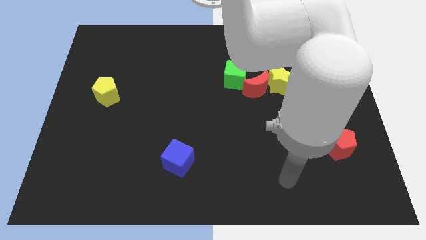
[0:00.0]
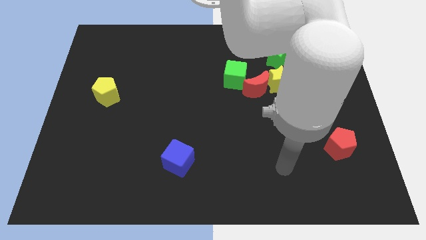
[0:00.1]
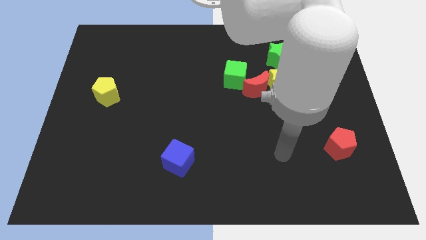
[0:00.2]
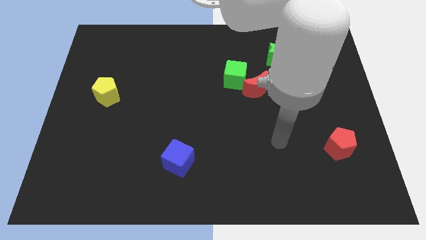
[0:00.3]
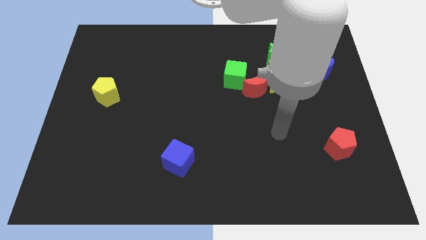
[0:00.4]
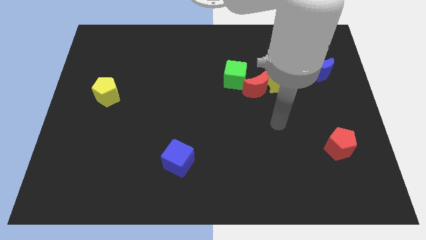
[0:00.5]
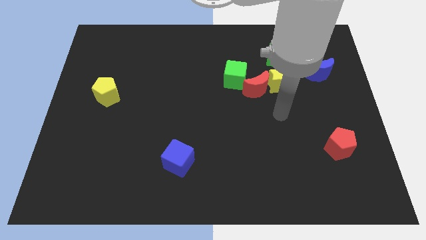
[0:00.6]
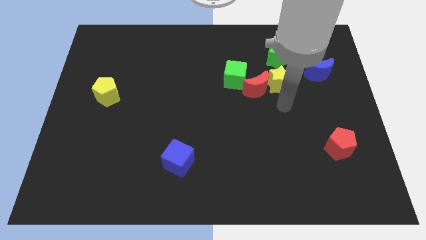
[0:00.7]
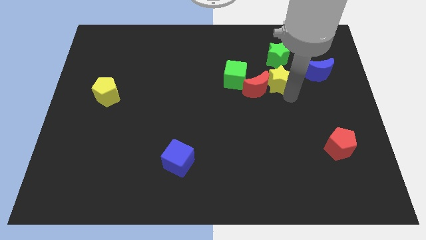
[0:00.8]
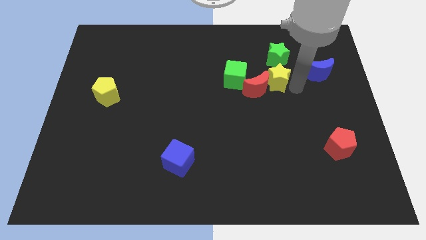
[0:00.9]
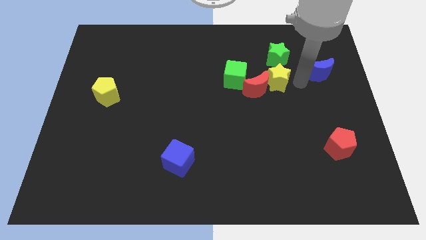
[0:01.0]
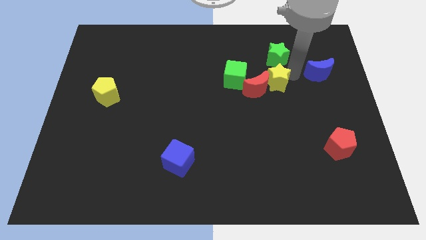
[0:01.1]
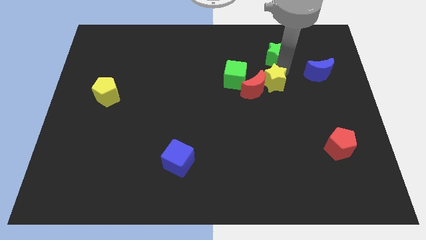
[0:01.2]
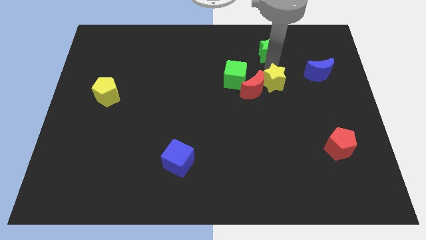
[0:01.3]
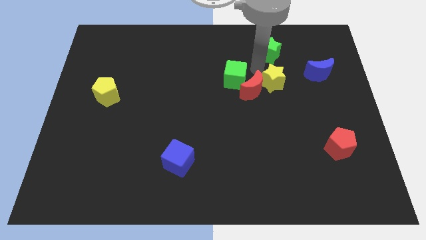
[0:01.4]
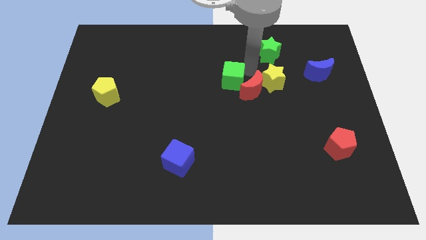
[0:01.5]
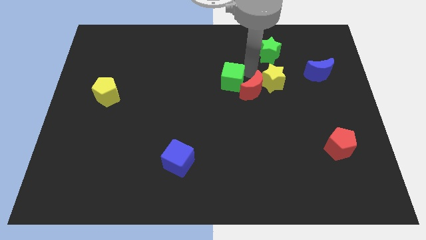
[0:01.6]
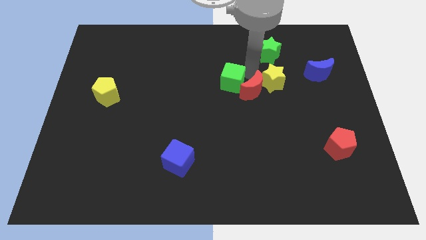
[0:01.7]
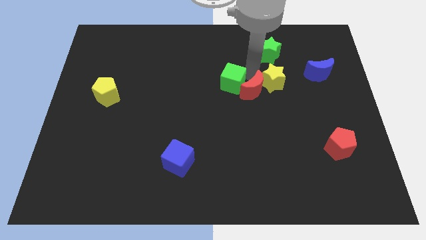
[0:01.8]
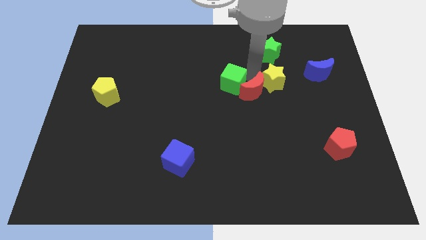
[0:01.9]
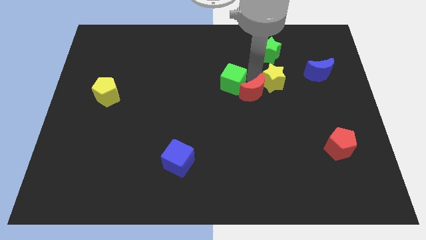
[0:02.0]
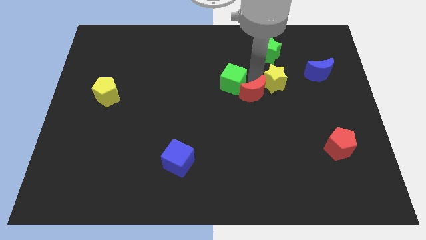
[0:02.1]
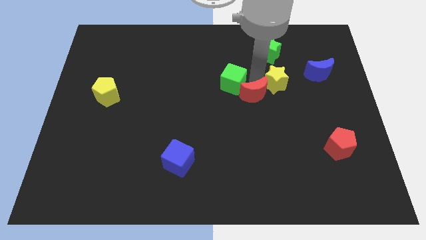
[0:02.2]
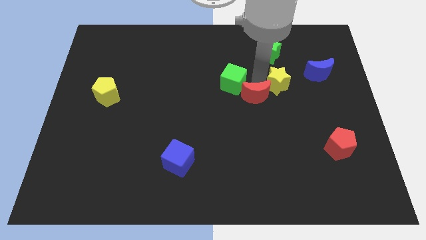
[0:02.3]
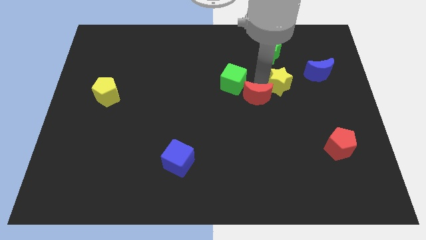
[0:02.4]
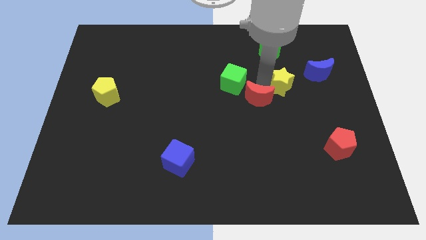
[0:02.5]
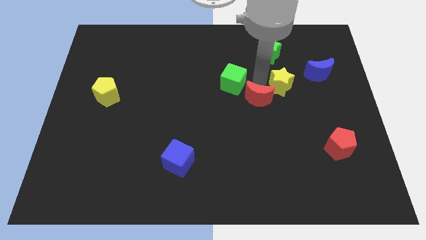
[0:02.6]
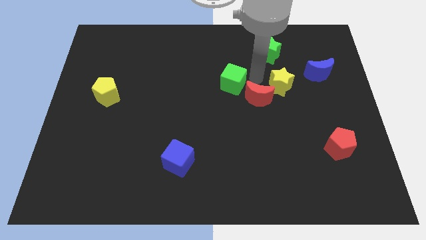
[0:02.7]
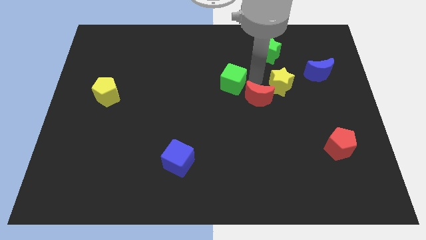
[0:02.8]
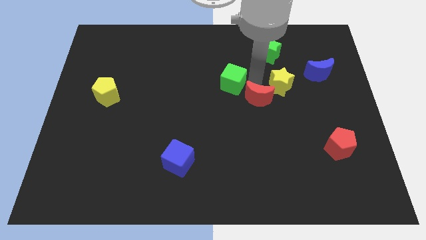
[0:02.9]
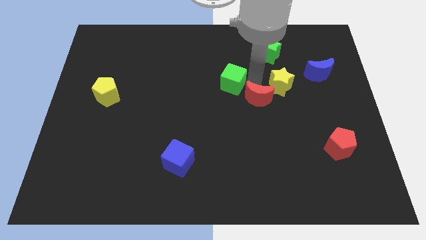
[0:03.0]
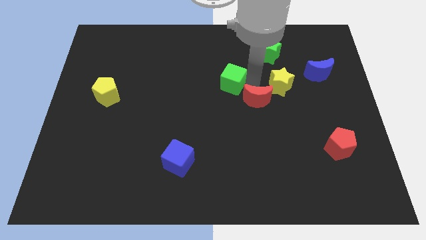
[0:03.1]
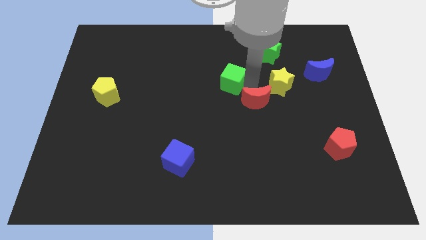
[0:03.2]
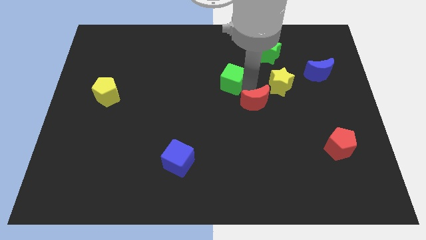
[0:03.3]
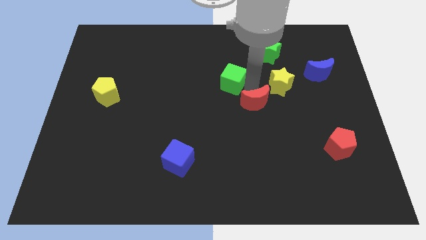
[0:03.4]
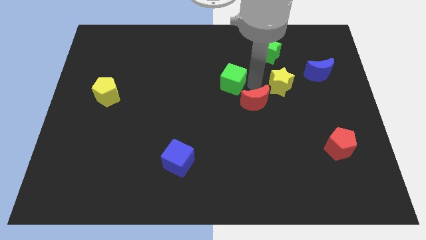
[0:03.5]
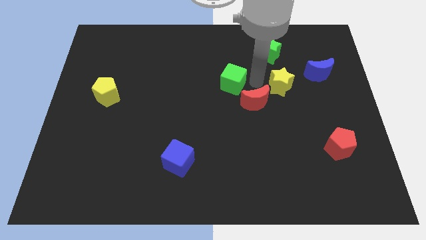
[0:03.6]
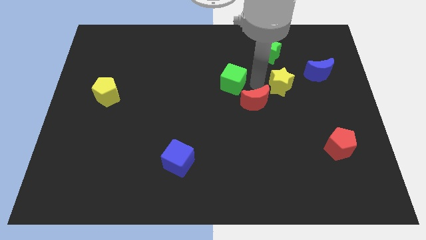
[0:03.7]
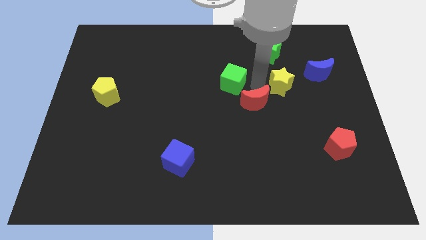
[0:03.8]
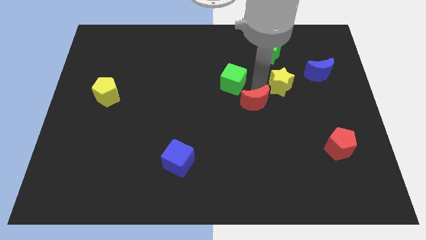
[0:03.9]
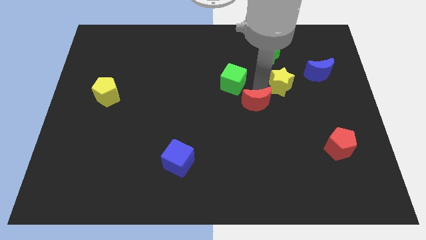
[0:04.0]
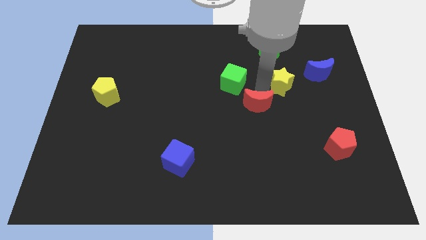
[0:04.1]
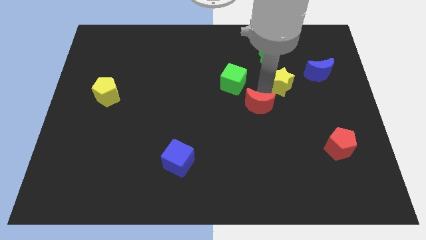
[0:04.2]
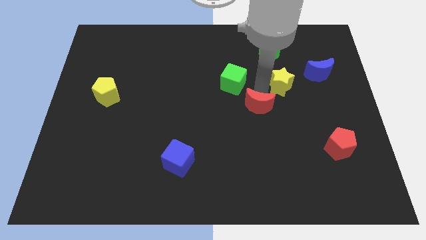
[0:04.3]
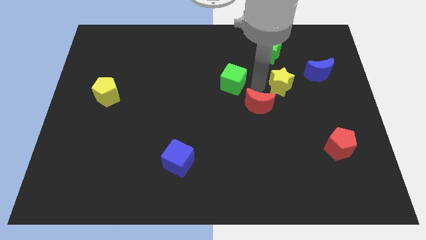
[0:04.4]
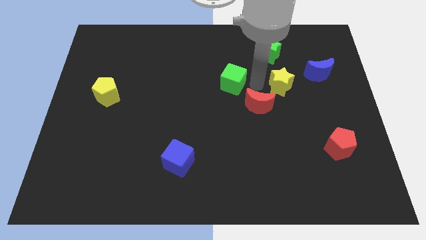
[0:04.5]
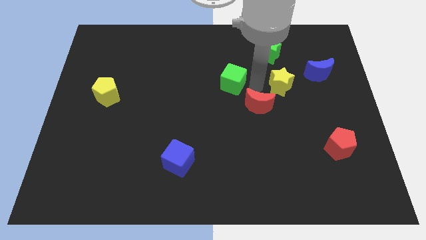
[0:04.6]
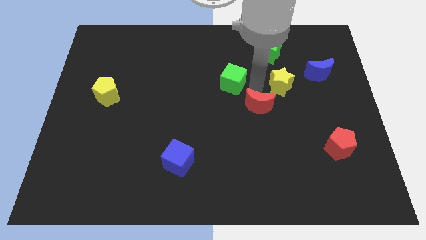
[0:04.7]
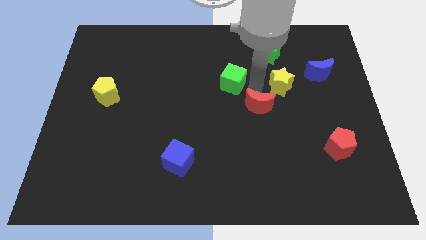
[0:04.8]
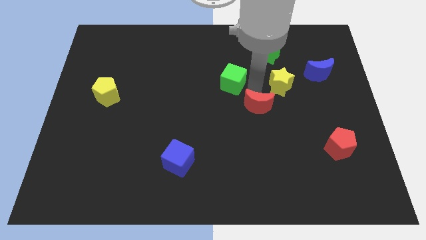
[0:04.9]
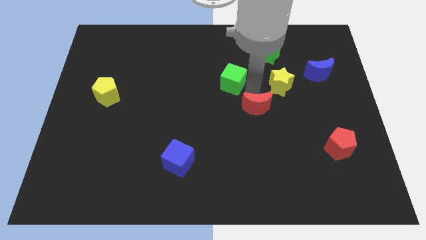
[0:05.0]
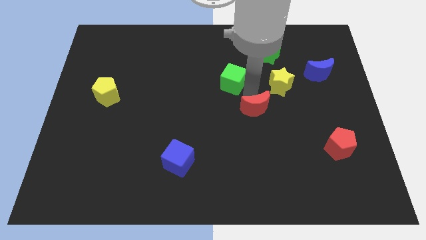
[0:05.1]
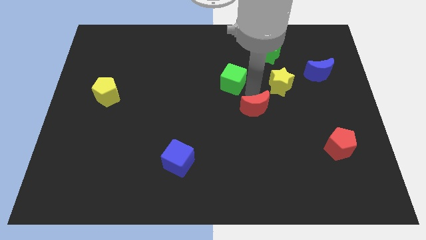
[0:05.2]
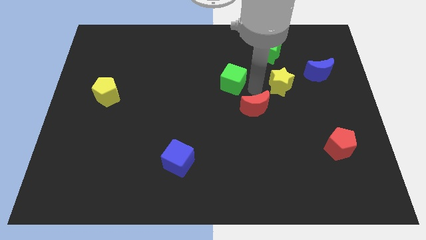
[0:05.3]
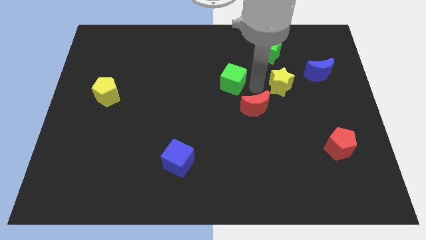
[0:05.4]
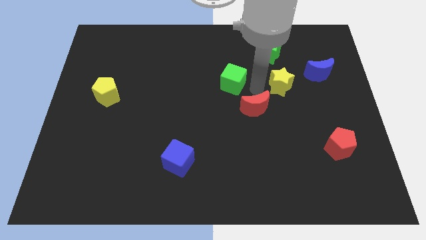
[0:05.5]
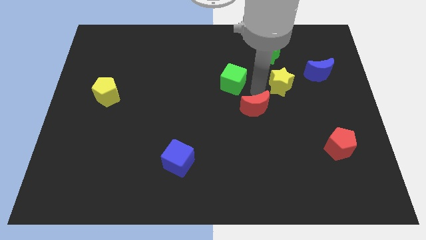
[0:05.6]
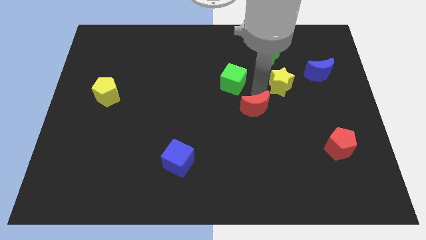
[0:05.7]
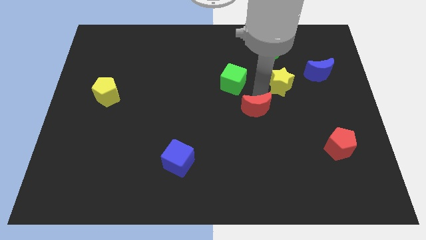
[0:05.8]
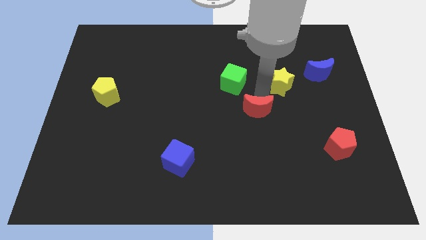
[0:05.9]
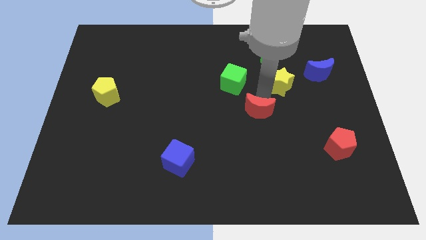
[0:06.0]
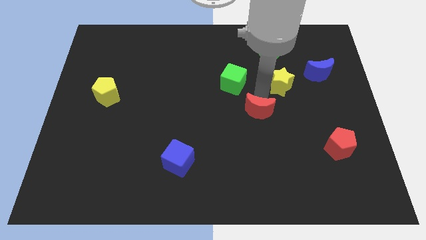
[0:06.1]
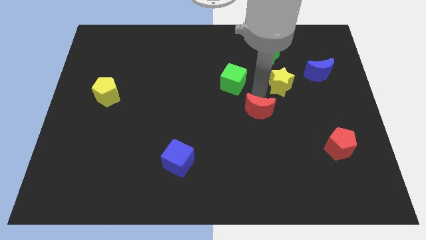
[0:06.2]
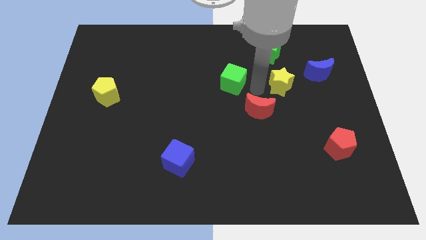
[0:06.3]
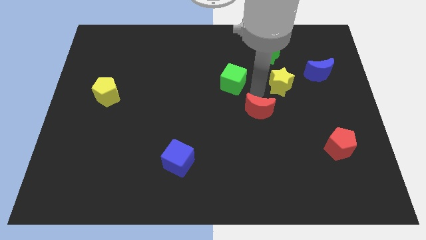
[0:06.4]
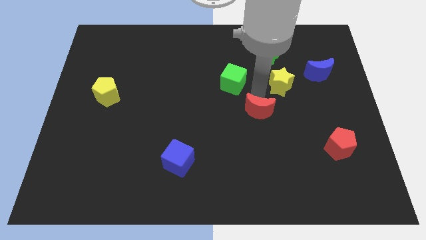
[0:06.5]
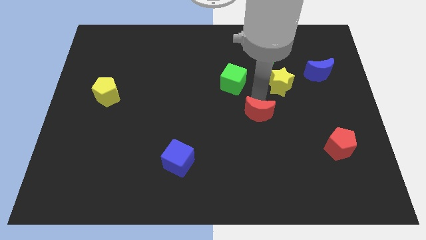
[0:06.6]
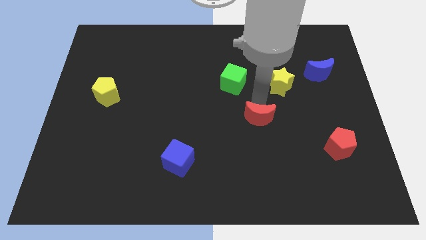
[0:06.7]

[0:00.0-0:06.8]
separate the red moon from the yellow star and green cube

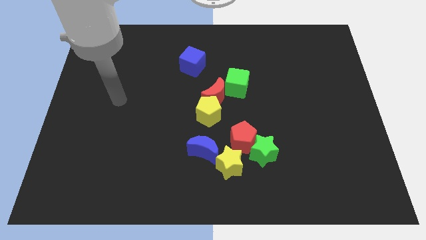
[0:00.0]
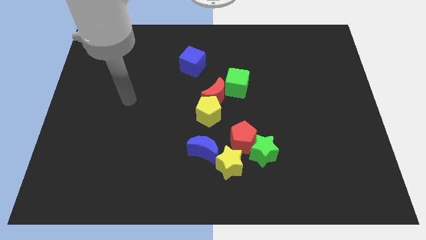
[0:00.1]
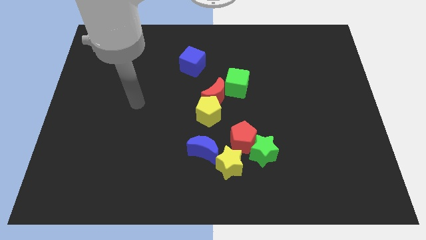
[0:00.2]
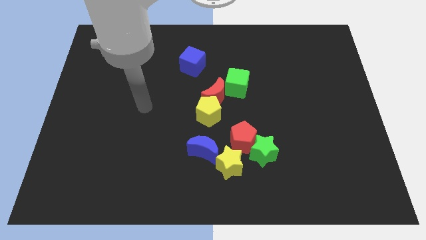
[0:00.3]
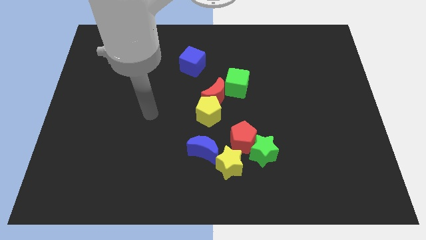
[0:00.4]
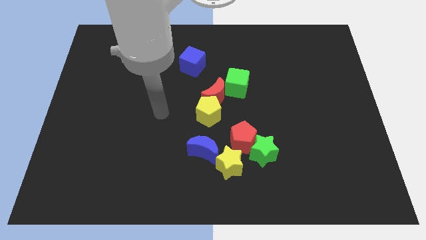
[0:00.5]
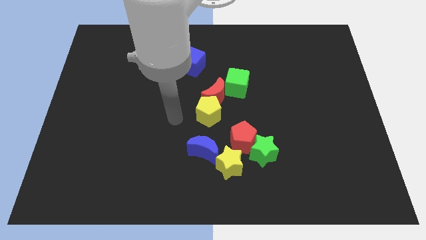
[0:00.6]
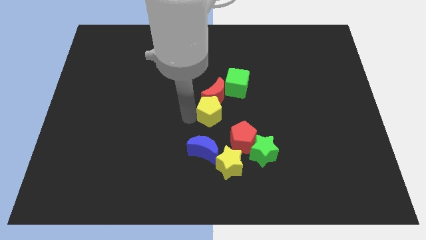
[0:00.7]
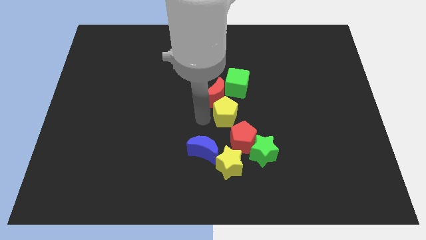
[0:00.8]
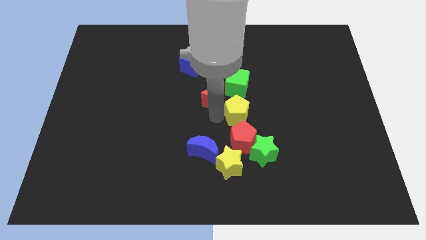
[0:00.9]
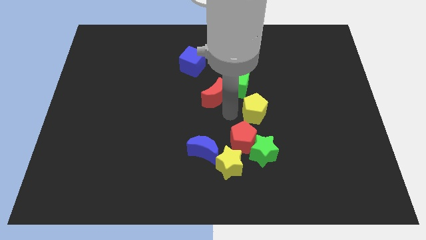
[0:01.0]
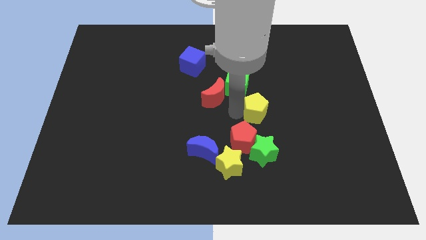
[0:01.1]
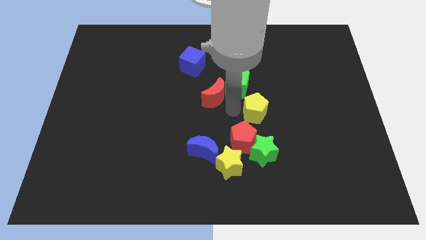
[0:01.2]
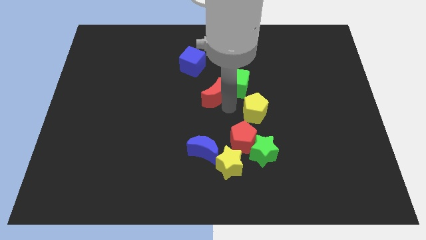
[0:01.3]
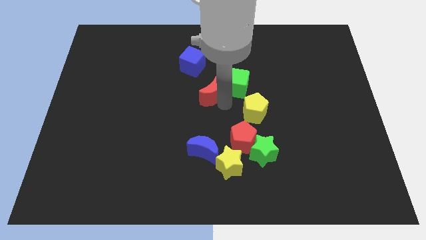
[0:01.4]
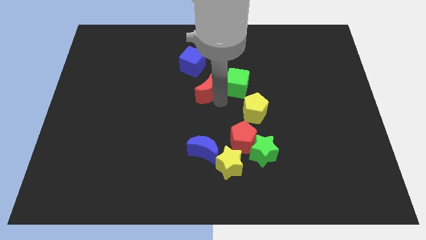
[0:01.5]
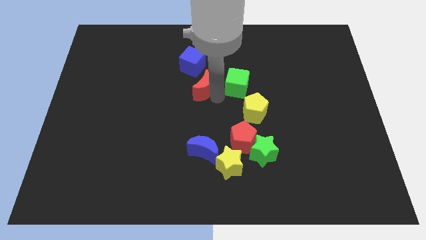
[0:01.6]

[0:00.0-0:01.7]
move the red moon away from the yellow pentagon and green cube

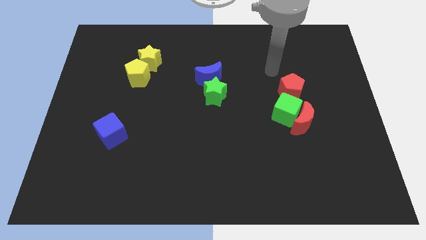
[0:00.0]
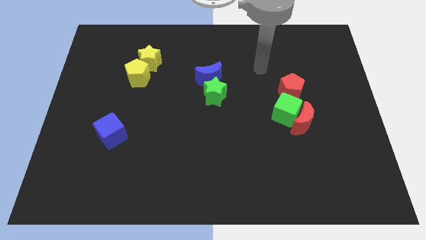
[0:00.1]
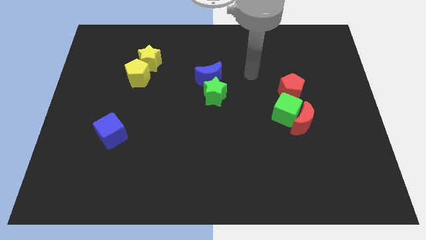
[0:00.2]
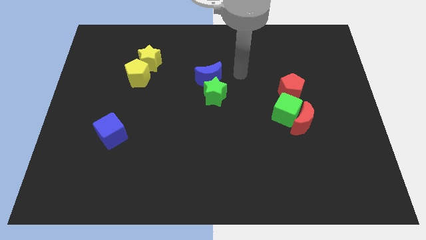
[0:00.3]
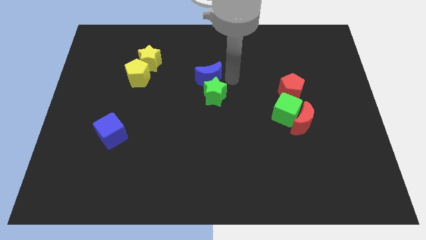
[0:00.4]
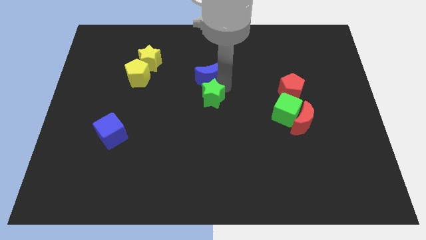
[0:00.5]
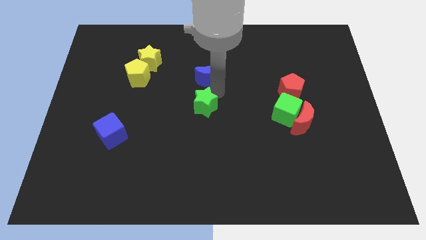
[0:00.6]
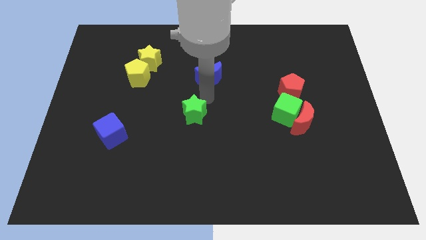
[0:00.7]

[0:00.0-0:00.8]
separate the blue moon from the green star

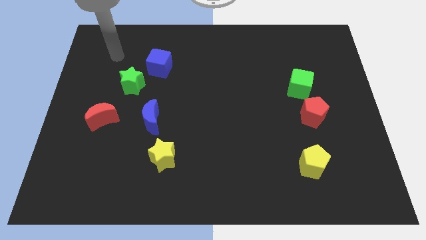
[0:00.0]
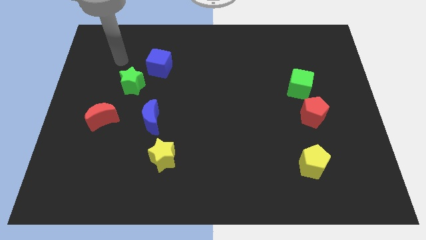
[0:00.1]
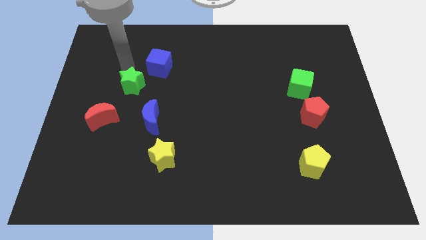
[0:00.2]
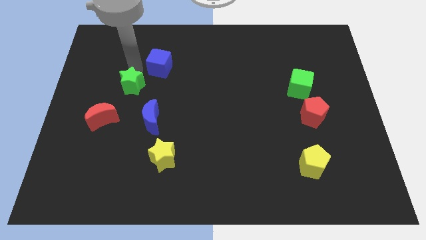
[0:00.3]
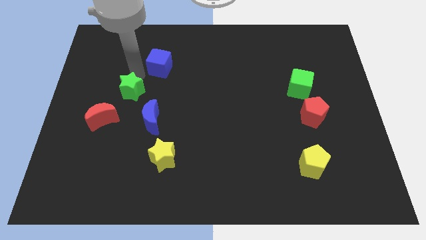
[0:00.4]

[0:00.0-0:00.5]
move the blue cube away from the green star
